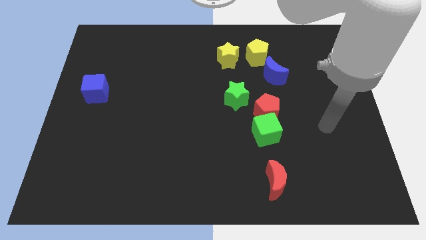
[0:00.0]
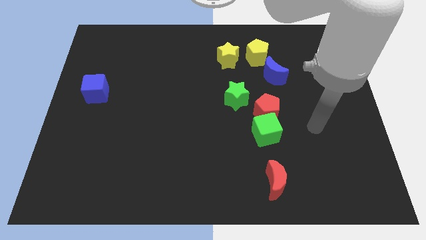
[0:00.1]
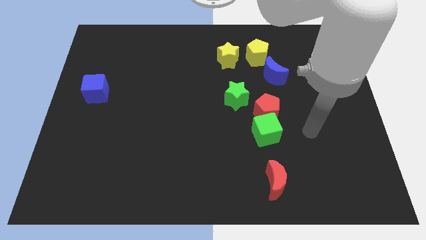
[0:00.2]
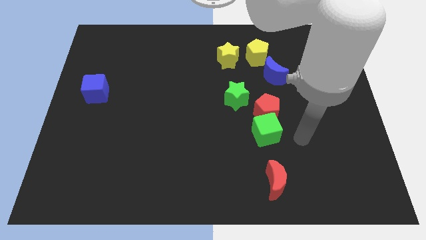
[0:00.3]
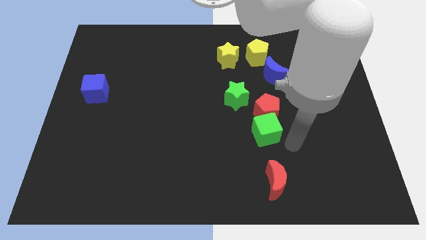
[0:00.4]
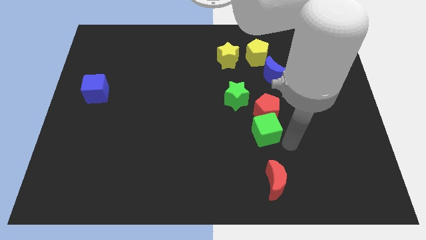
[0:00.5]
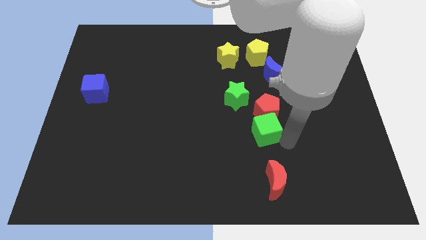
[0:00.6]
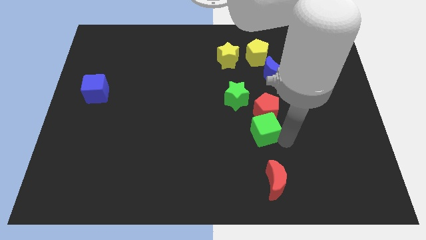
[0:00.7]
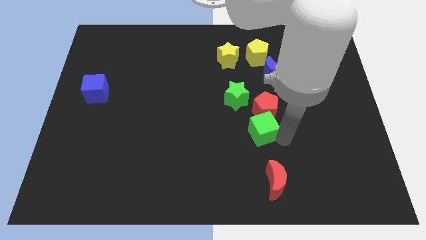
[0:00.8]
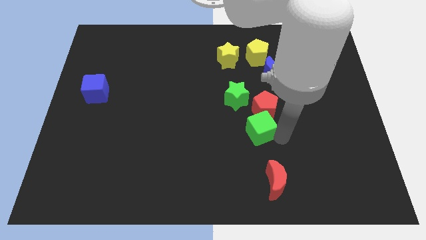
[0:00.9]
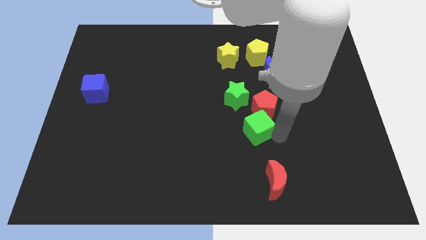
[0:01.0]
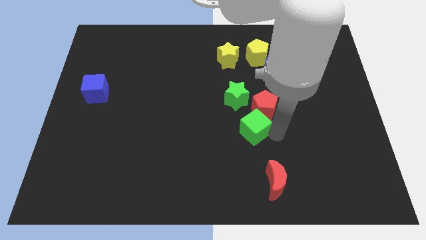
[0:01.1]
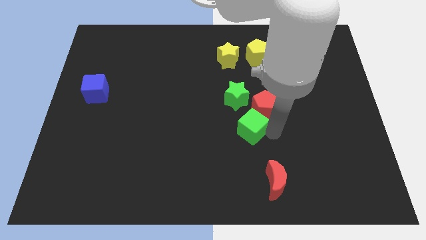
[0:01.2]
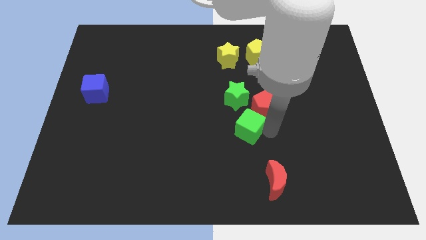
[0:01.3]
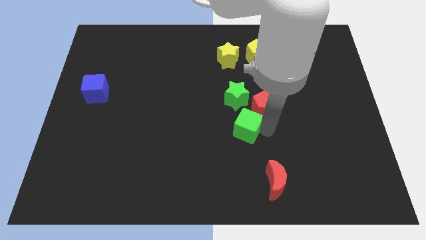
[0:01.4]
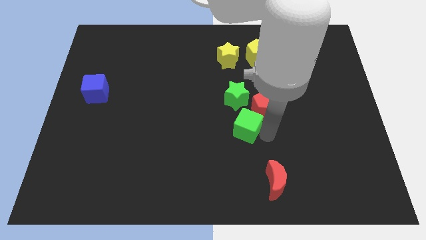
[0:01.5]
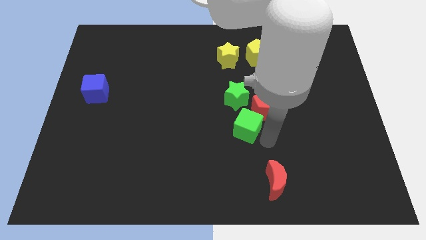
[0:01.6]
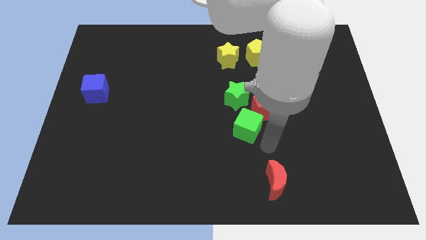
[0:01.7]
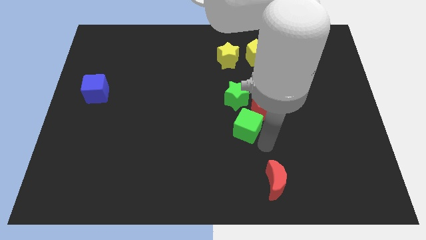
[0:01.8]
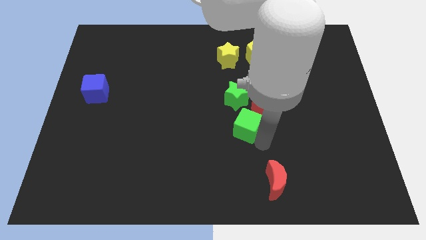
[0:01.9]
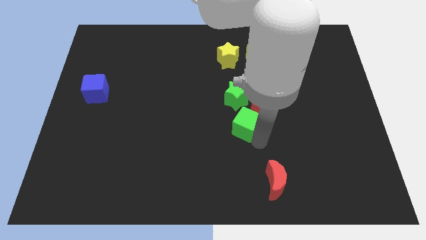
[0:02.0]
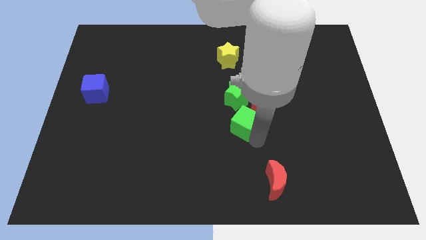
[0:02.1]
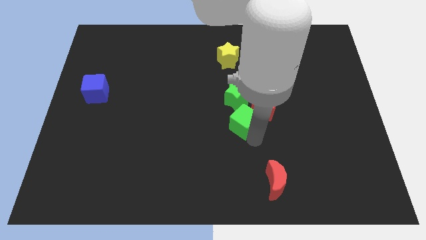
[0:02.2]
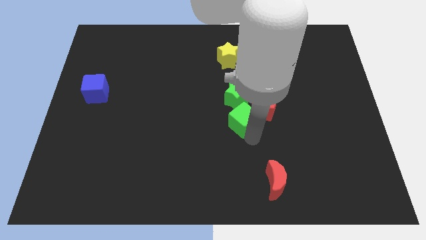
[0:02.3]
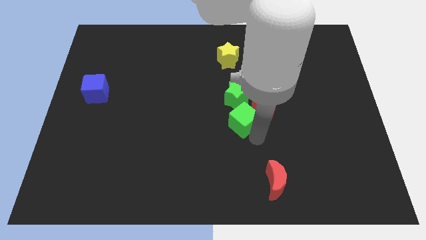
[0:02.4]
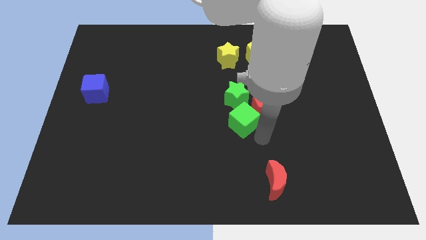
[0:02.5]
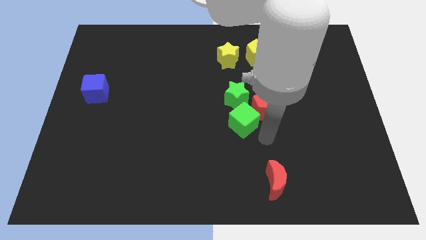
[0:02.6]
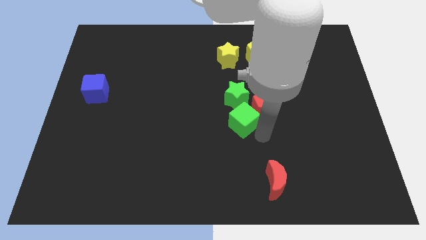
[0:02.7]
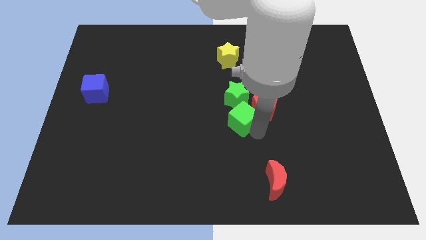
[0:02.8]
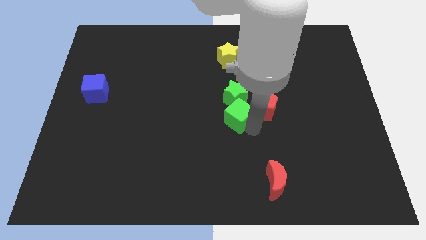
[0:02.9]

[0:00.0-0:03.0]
move the green cube diagonally up and left somewhat

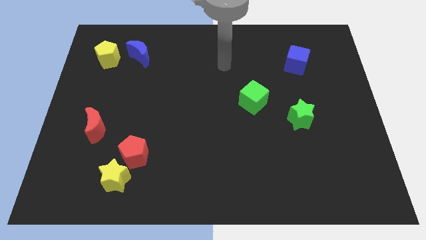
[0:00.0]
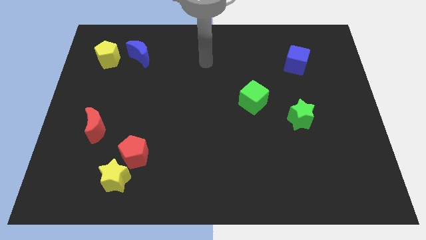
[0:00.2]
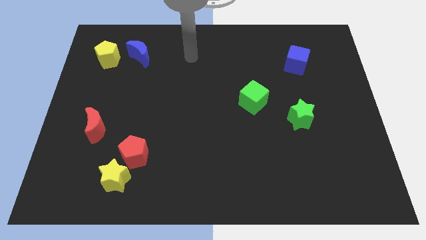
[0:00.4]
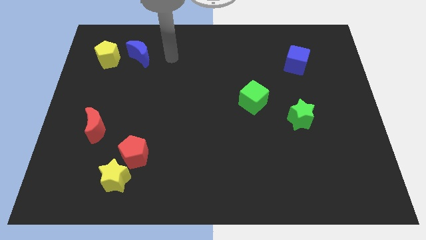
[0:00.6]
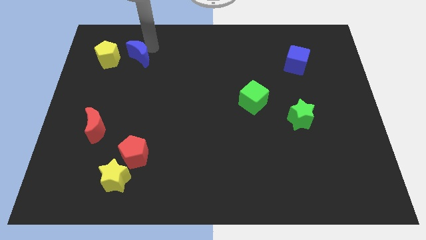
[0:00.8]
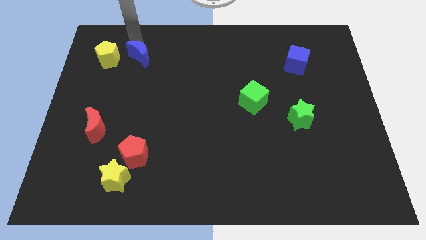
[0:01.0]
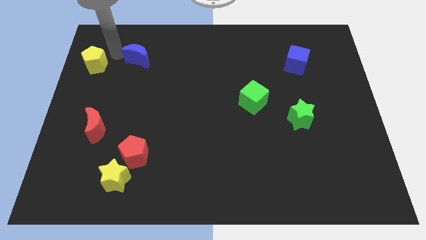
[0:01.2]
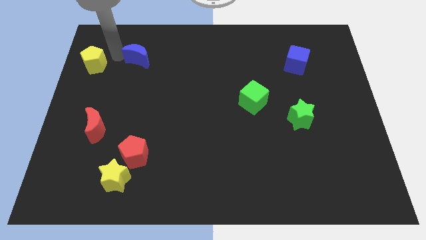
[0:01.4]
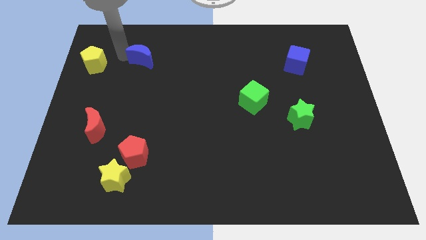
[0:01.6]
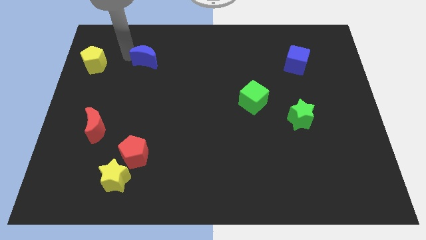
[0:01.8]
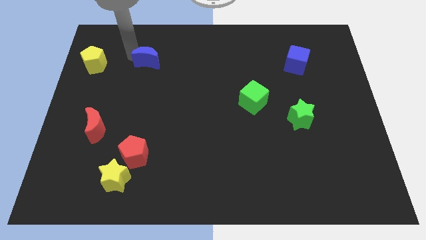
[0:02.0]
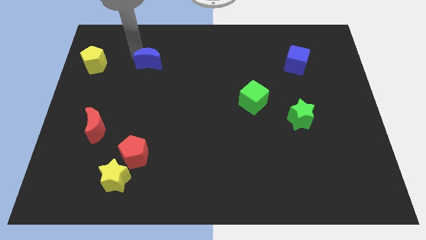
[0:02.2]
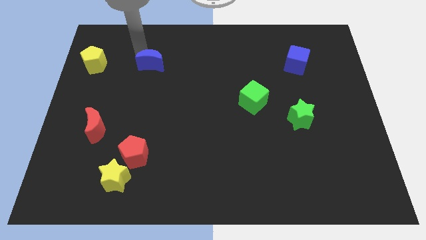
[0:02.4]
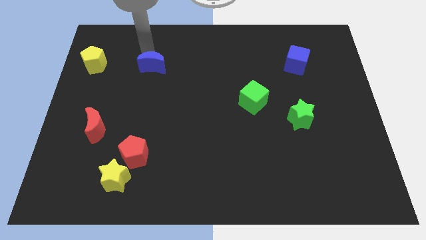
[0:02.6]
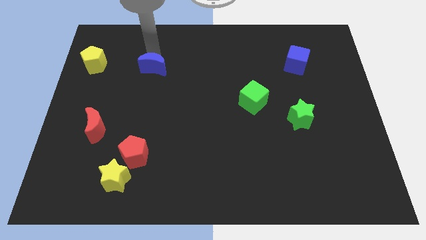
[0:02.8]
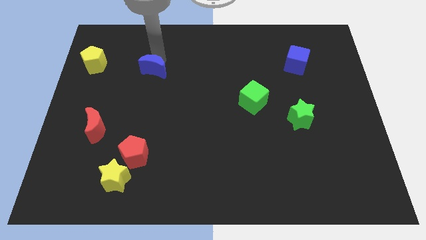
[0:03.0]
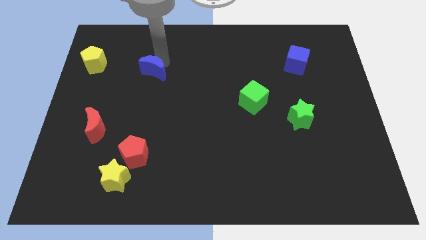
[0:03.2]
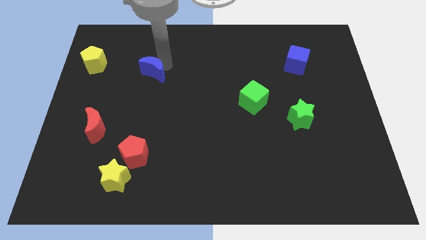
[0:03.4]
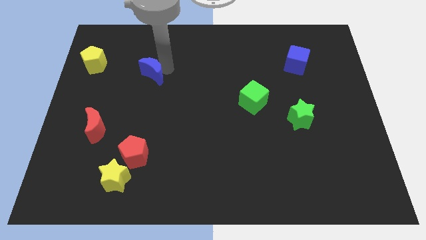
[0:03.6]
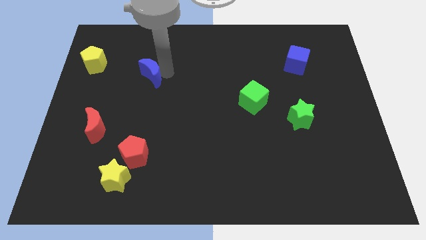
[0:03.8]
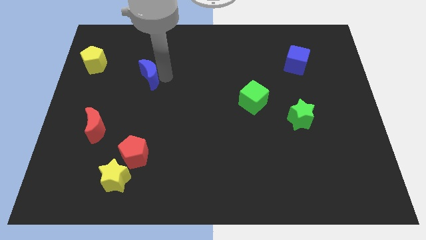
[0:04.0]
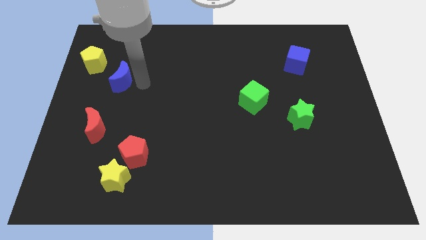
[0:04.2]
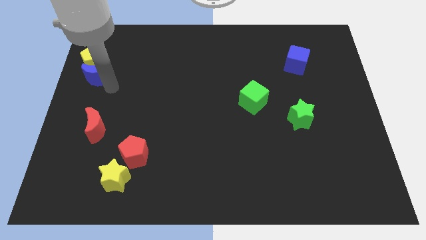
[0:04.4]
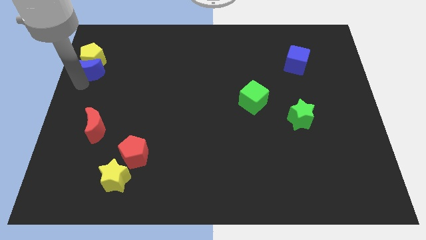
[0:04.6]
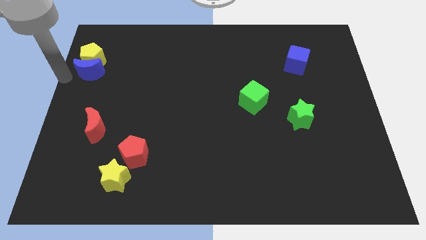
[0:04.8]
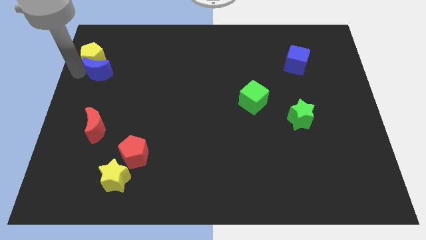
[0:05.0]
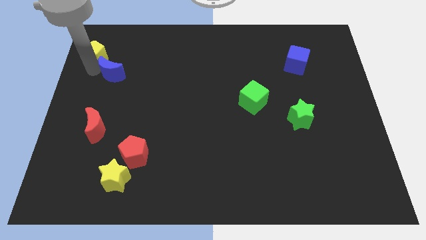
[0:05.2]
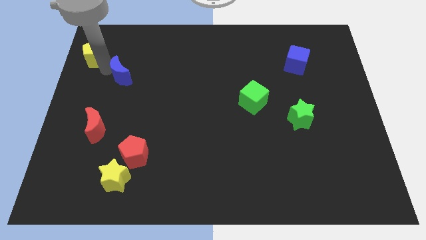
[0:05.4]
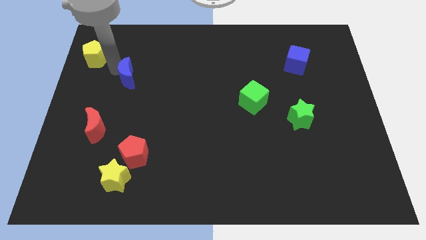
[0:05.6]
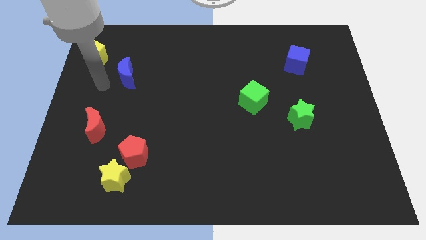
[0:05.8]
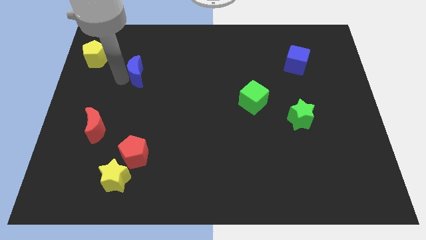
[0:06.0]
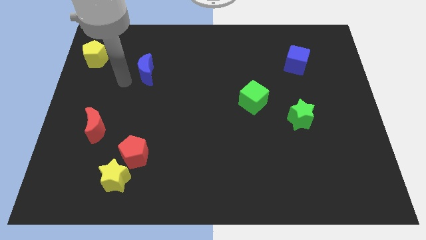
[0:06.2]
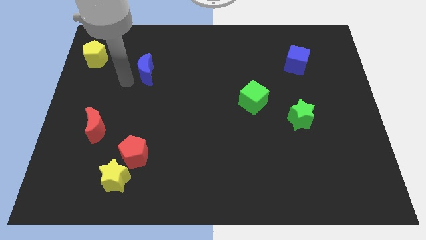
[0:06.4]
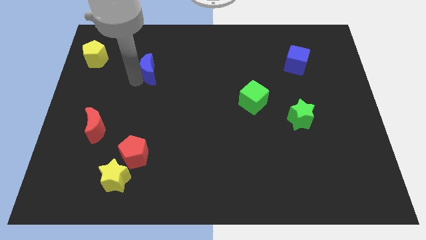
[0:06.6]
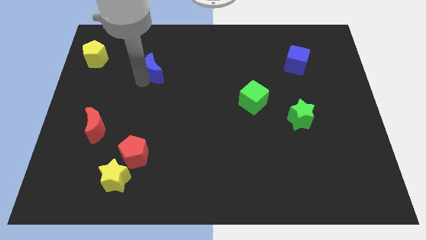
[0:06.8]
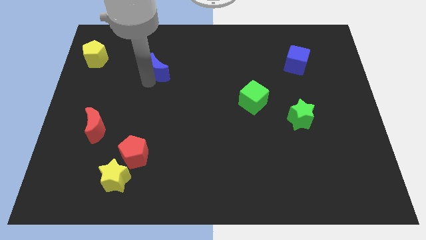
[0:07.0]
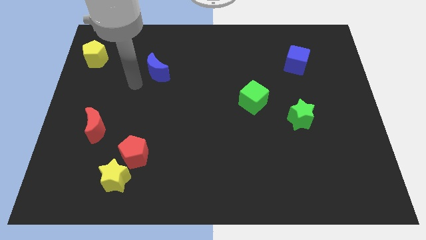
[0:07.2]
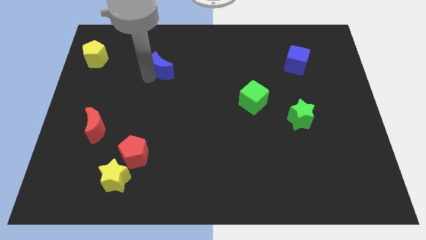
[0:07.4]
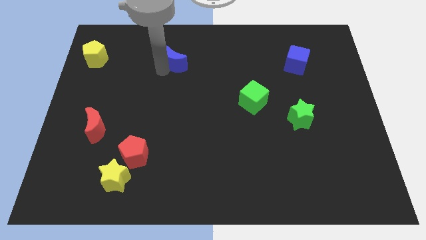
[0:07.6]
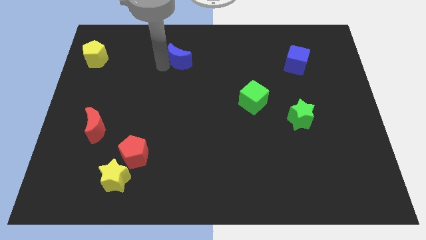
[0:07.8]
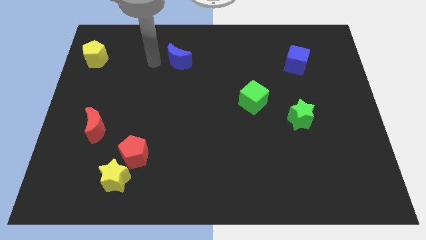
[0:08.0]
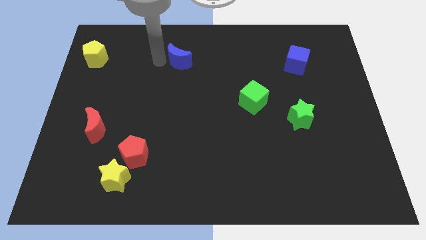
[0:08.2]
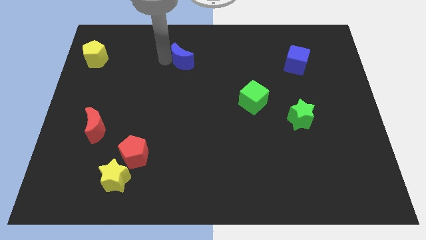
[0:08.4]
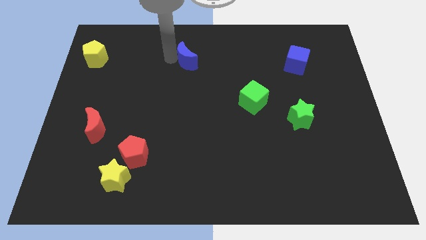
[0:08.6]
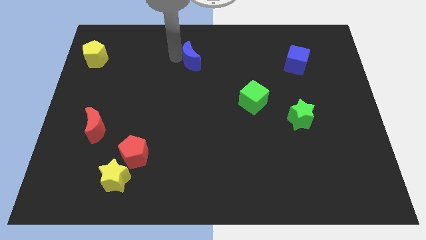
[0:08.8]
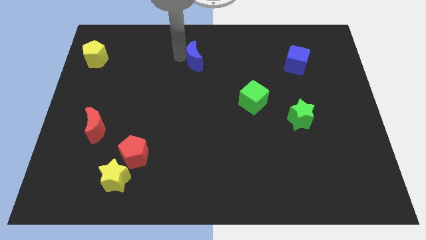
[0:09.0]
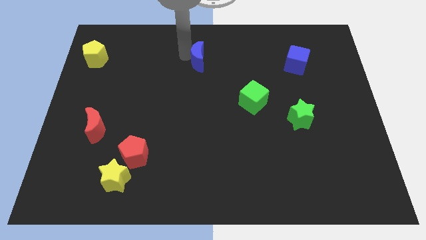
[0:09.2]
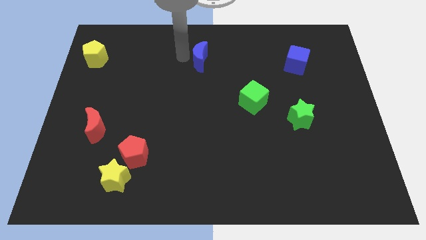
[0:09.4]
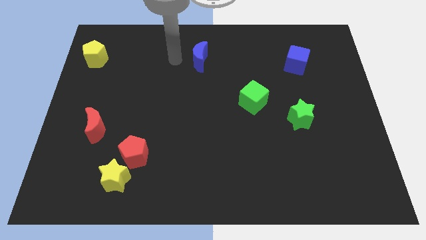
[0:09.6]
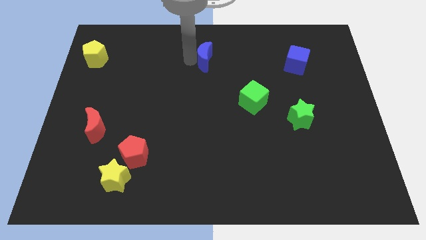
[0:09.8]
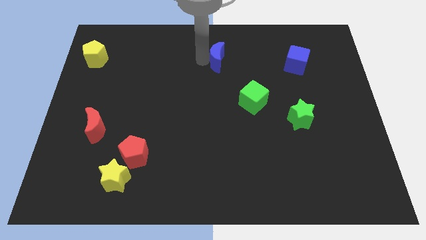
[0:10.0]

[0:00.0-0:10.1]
push the blue moon right
